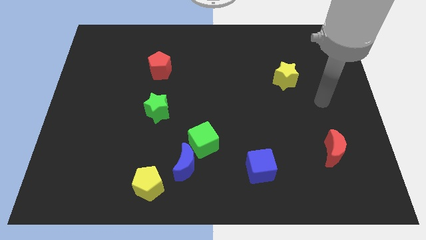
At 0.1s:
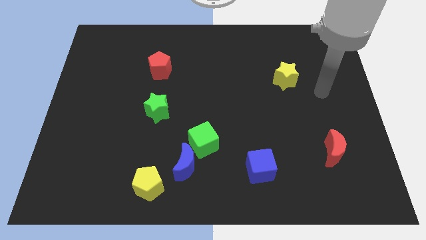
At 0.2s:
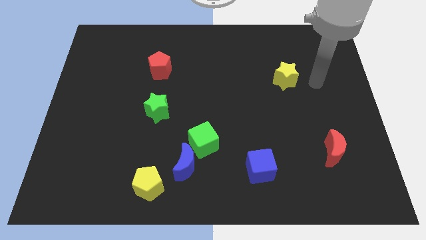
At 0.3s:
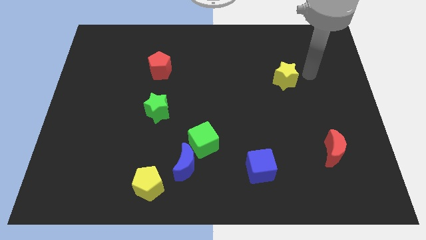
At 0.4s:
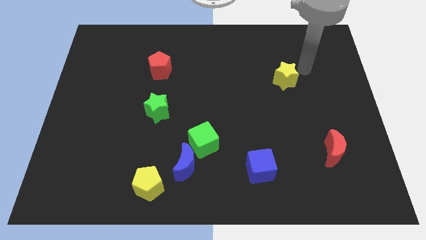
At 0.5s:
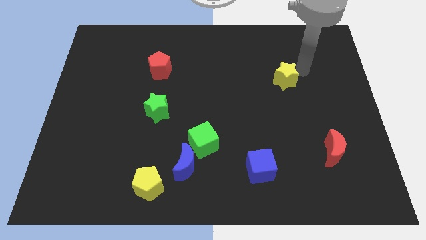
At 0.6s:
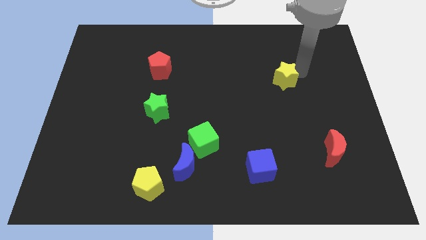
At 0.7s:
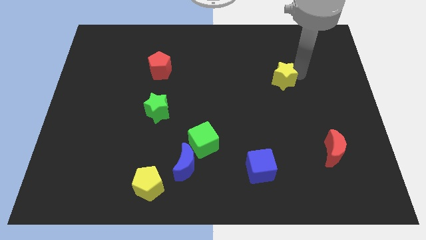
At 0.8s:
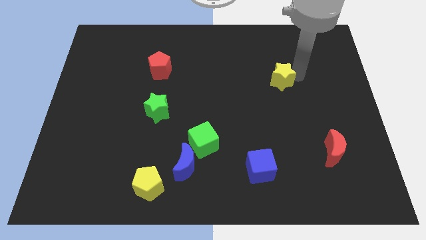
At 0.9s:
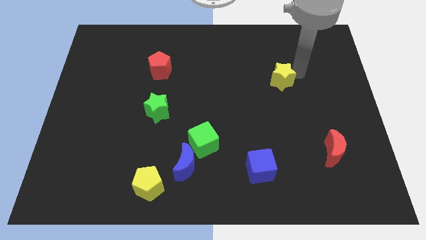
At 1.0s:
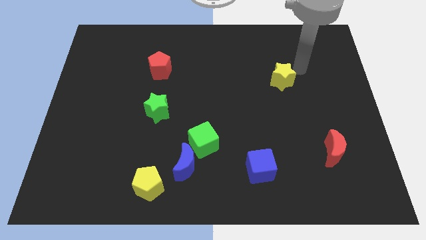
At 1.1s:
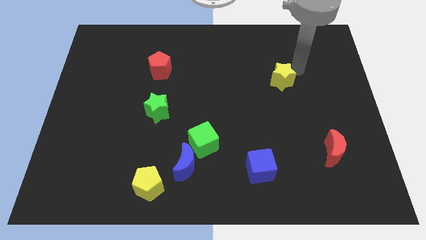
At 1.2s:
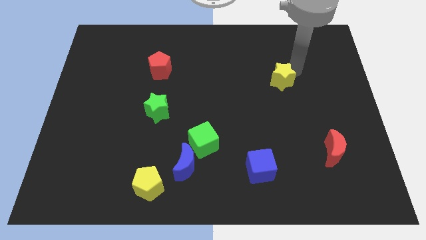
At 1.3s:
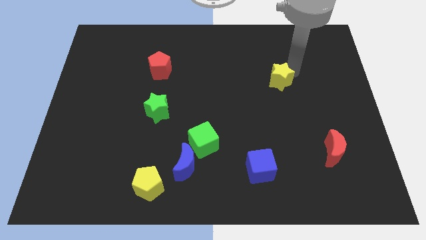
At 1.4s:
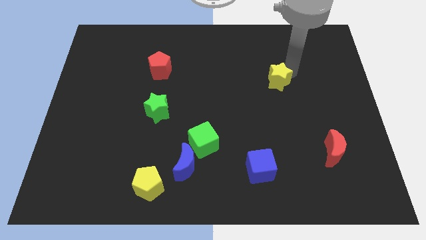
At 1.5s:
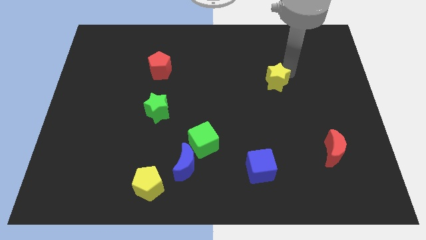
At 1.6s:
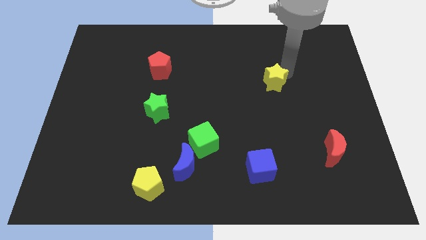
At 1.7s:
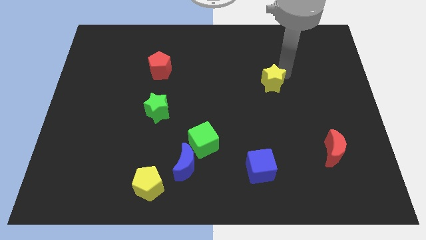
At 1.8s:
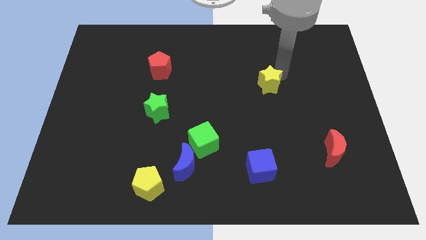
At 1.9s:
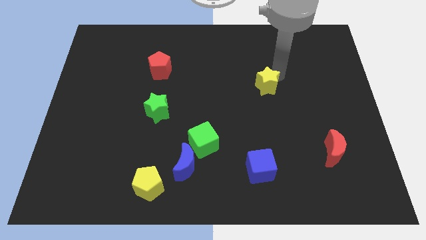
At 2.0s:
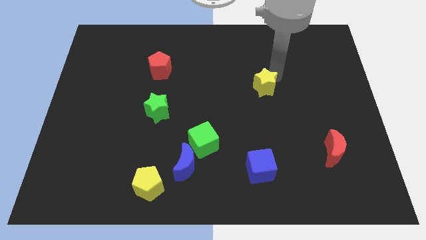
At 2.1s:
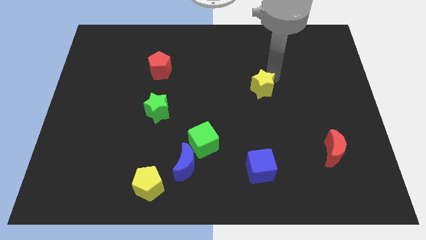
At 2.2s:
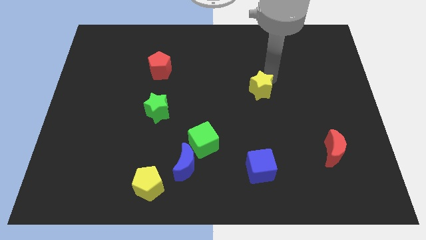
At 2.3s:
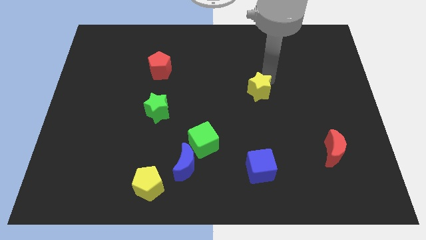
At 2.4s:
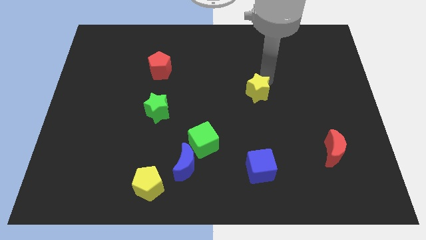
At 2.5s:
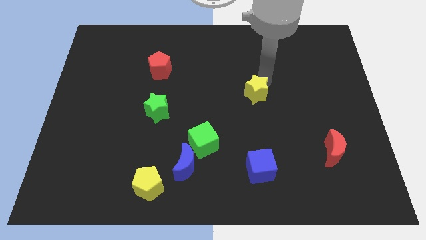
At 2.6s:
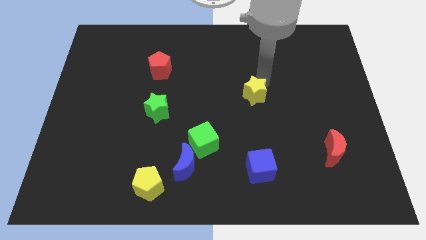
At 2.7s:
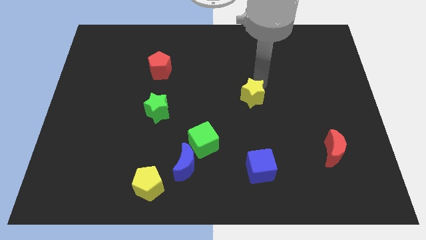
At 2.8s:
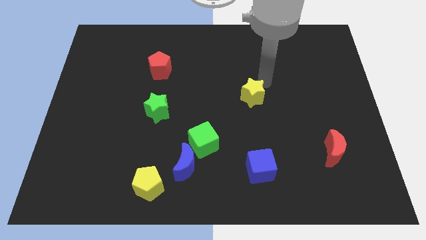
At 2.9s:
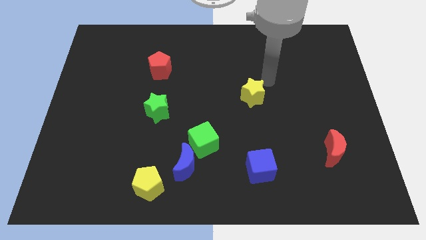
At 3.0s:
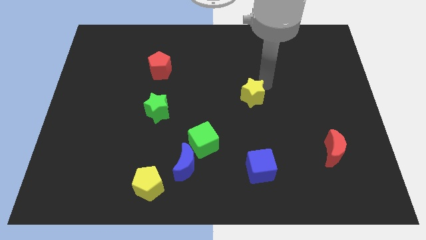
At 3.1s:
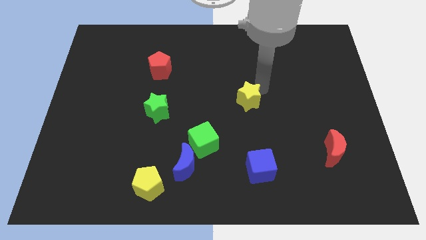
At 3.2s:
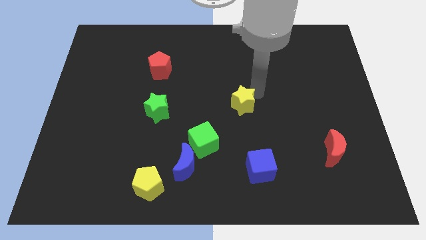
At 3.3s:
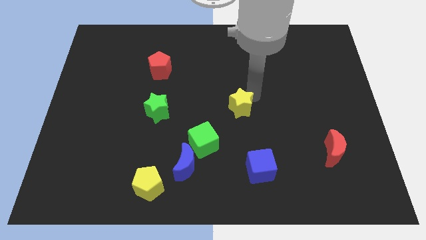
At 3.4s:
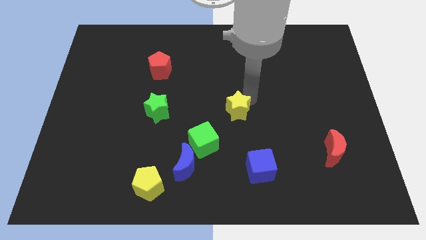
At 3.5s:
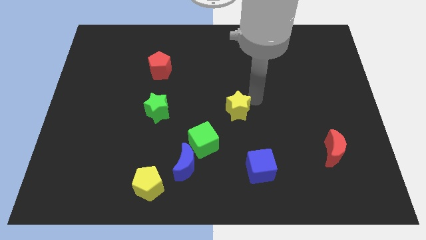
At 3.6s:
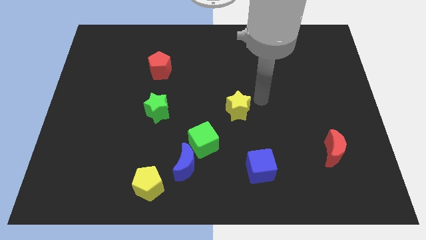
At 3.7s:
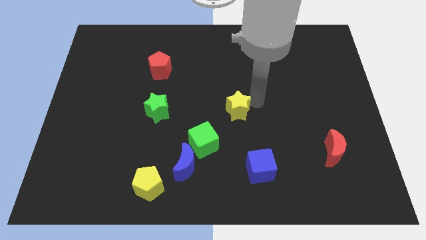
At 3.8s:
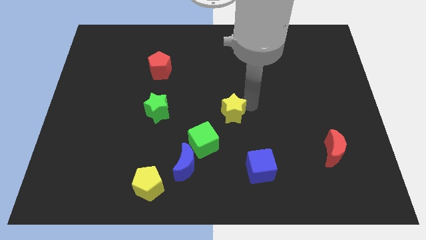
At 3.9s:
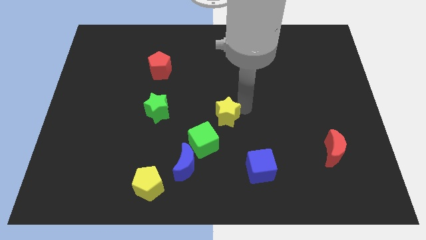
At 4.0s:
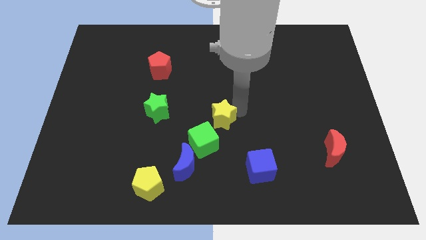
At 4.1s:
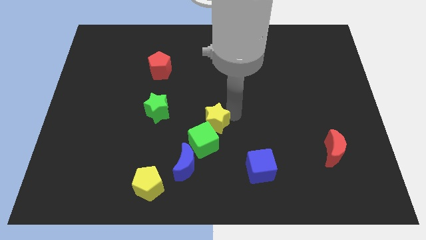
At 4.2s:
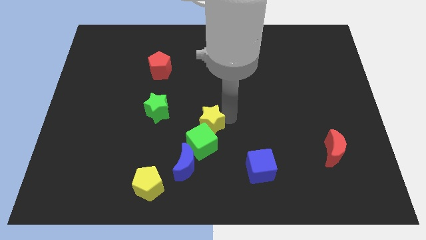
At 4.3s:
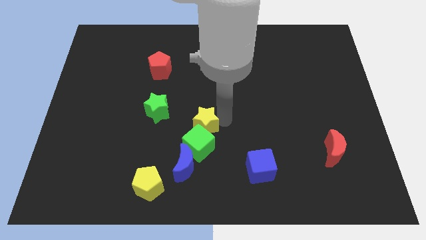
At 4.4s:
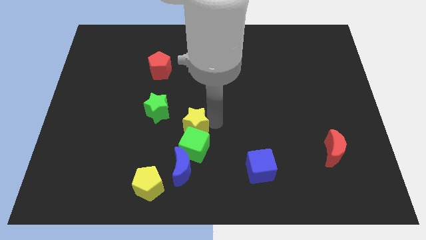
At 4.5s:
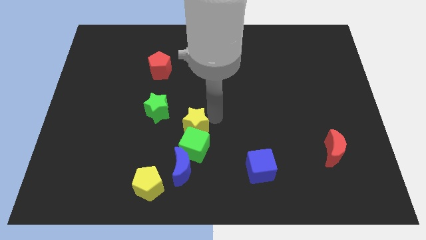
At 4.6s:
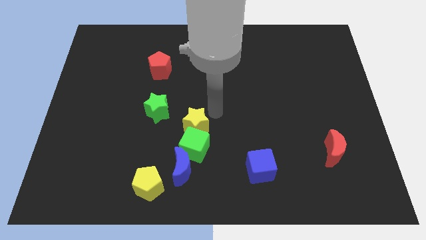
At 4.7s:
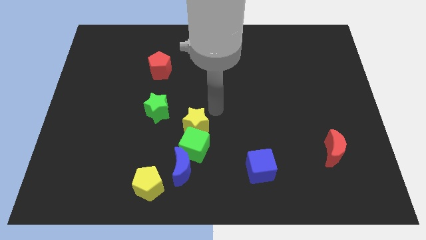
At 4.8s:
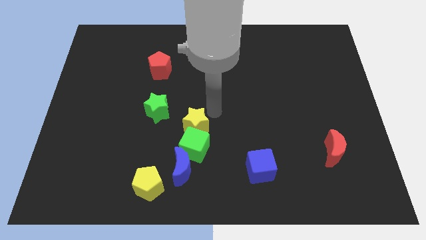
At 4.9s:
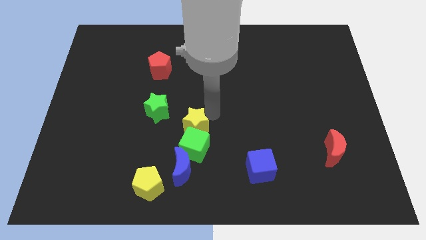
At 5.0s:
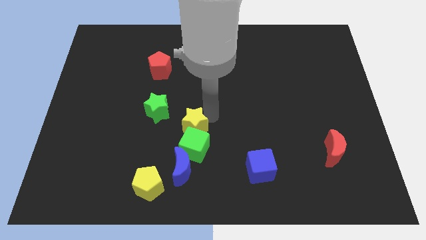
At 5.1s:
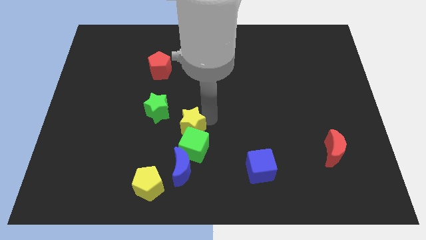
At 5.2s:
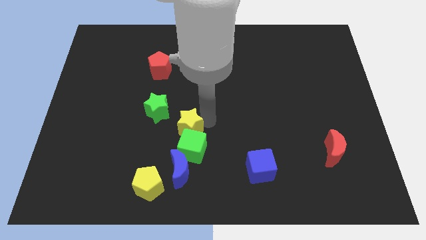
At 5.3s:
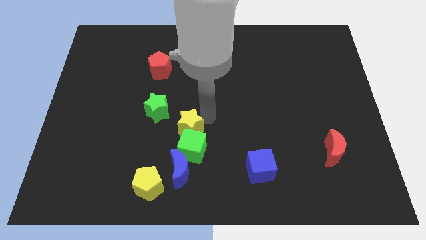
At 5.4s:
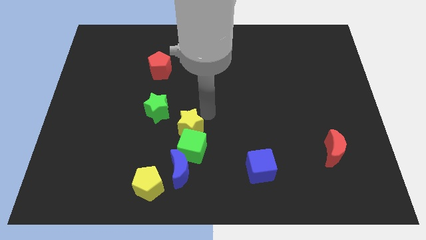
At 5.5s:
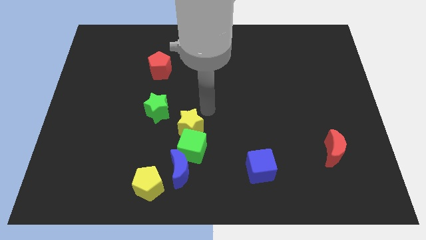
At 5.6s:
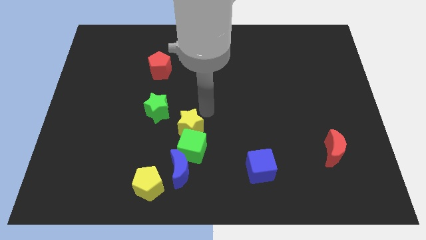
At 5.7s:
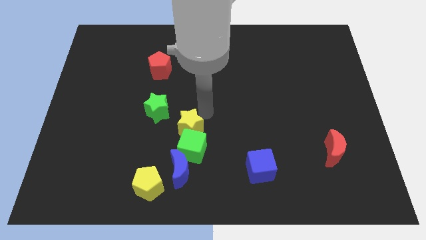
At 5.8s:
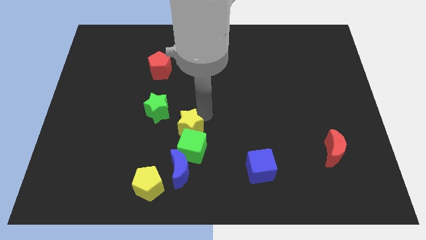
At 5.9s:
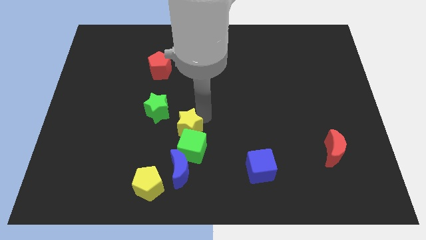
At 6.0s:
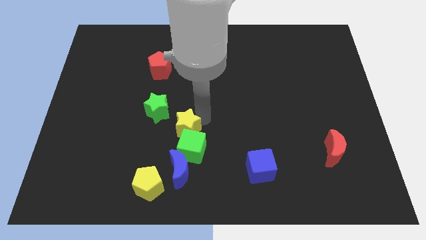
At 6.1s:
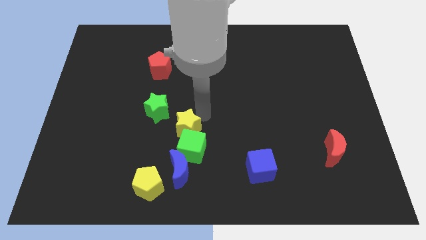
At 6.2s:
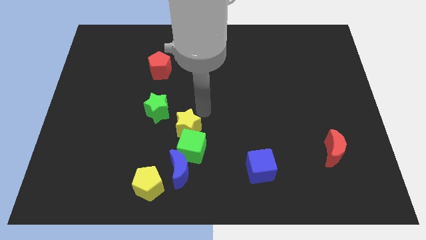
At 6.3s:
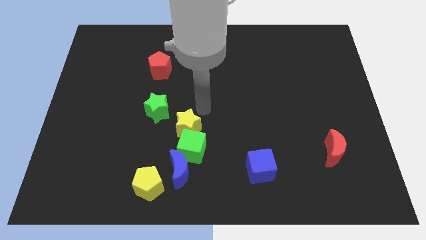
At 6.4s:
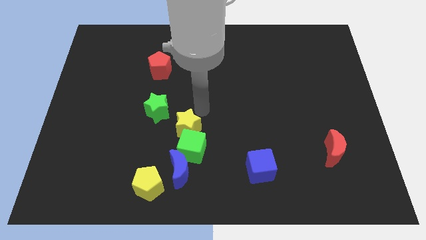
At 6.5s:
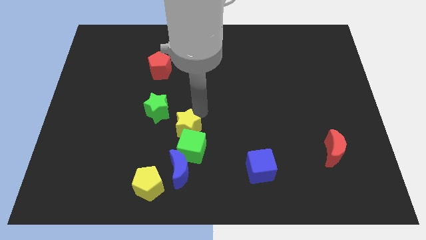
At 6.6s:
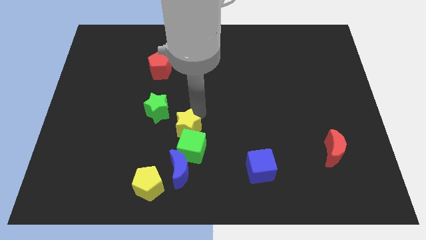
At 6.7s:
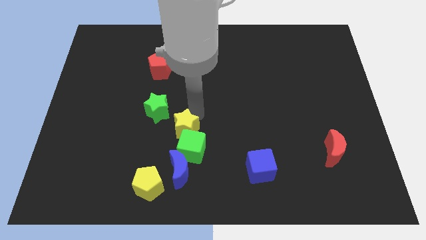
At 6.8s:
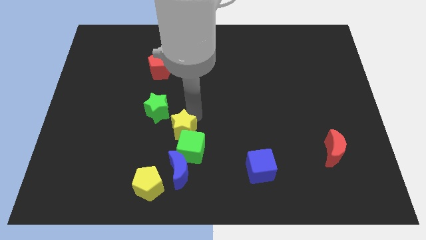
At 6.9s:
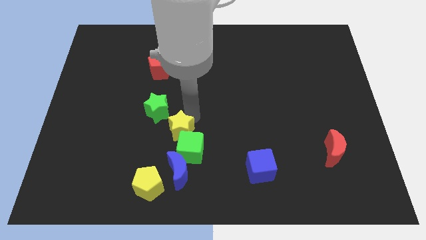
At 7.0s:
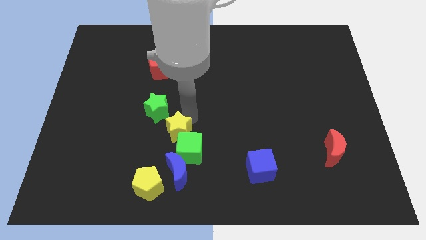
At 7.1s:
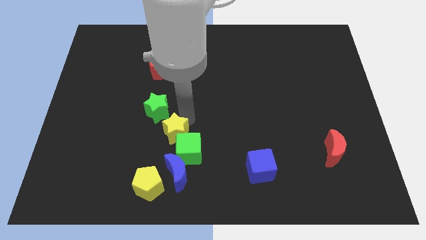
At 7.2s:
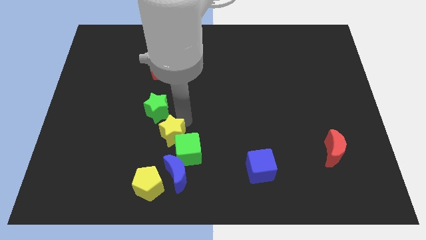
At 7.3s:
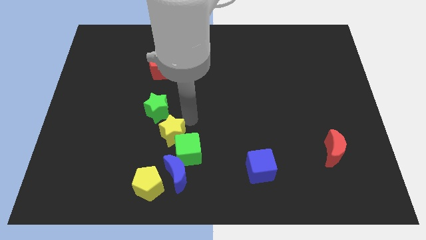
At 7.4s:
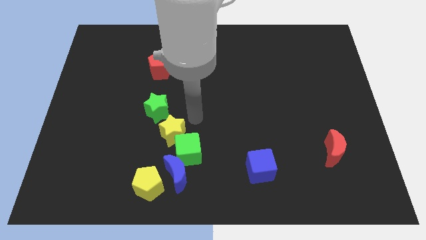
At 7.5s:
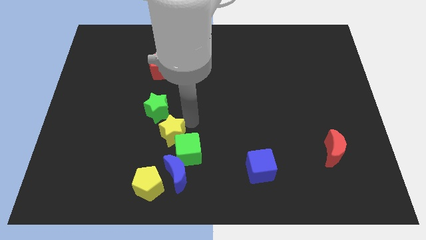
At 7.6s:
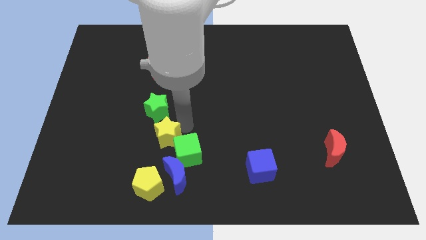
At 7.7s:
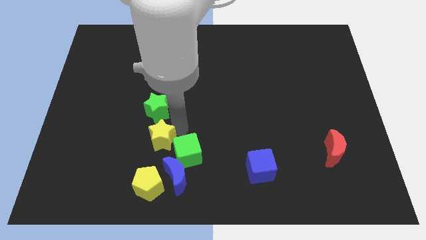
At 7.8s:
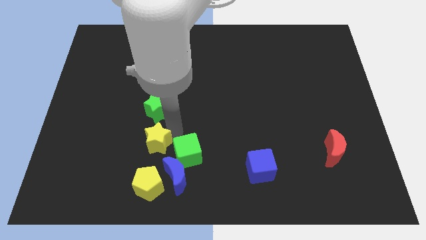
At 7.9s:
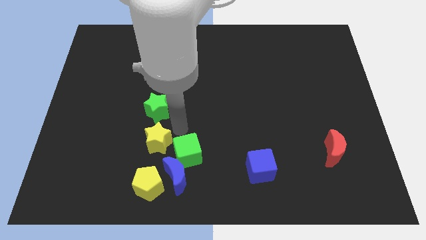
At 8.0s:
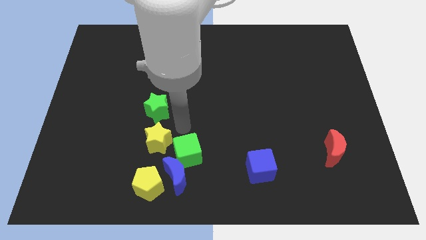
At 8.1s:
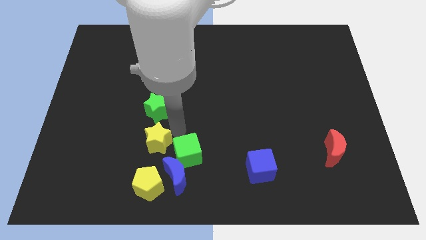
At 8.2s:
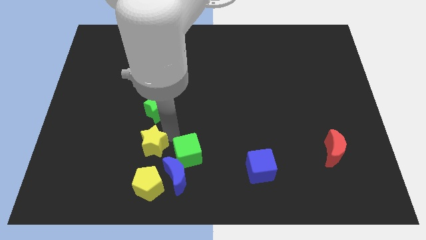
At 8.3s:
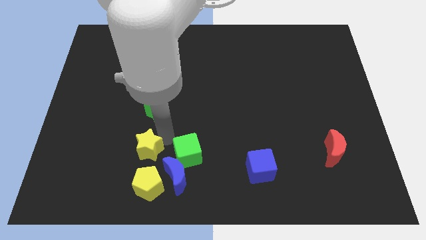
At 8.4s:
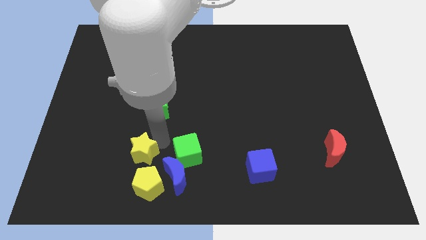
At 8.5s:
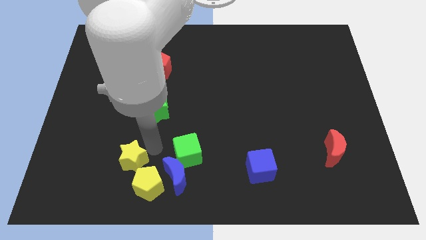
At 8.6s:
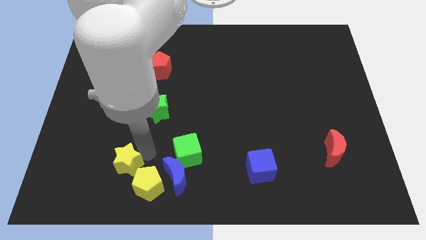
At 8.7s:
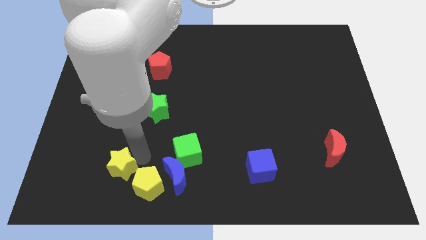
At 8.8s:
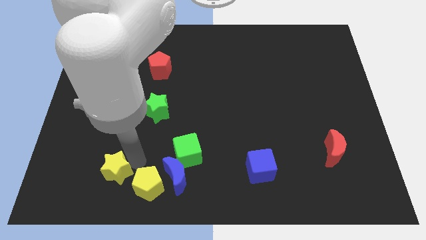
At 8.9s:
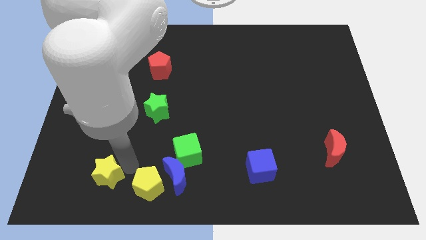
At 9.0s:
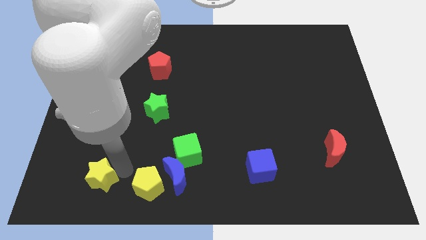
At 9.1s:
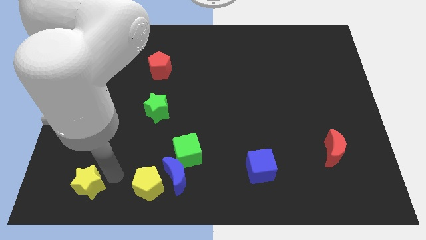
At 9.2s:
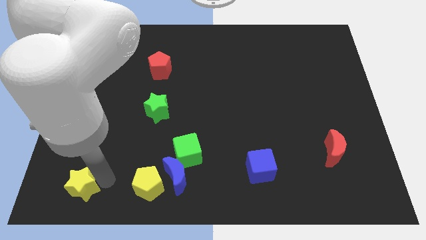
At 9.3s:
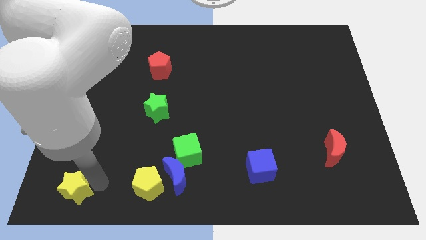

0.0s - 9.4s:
move the yellow star to the bottom left
